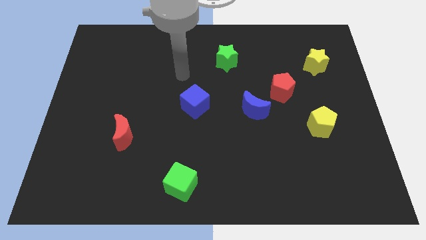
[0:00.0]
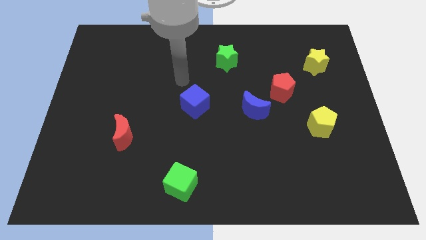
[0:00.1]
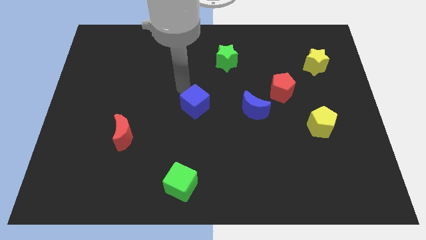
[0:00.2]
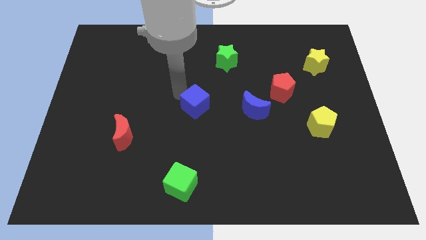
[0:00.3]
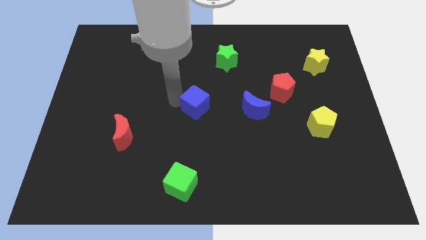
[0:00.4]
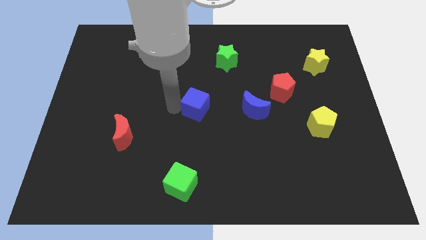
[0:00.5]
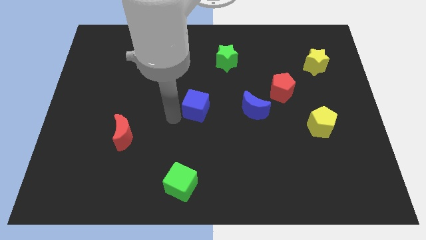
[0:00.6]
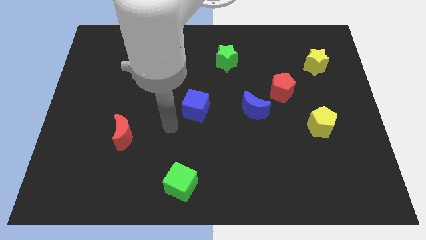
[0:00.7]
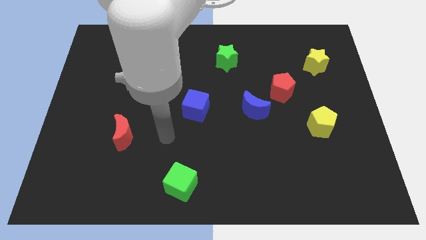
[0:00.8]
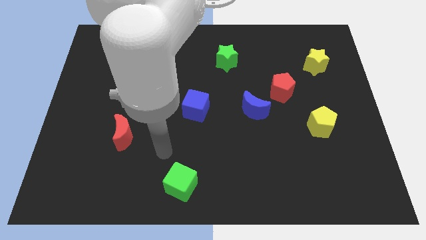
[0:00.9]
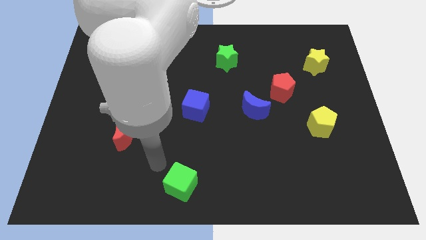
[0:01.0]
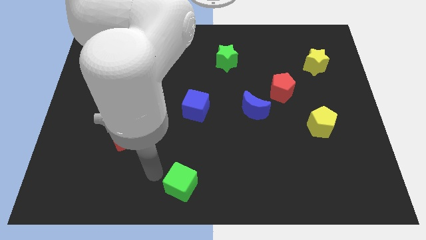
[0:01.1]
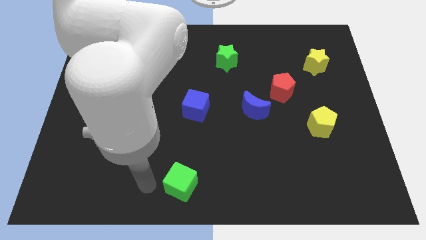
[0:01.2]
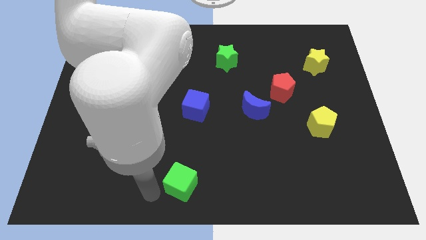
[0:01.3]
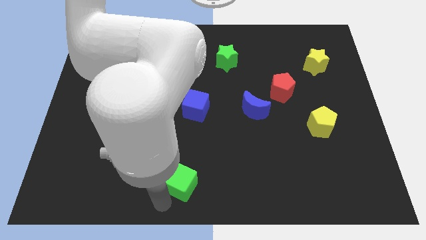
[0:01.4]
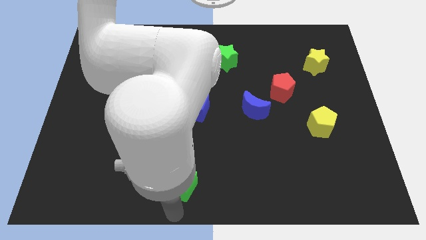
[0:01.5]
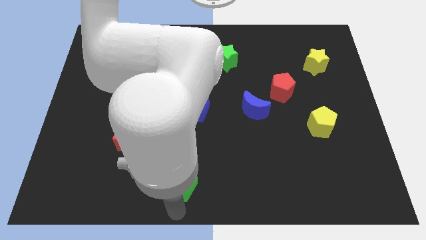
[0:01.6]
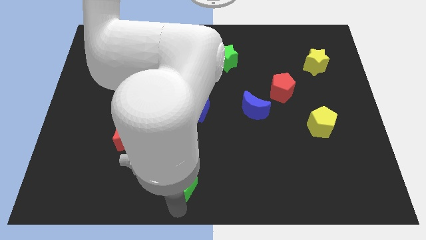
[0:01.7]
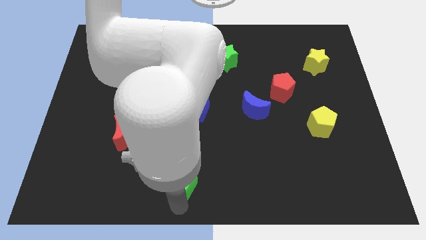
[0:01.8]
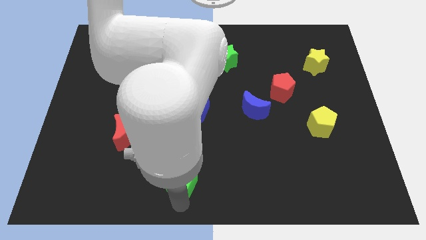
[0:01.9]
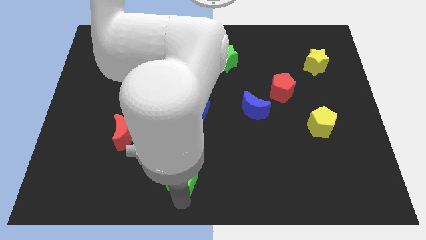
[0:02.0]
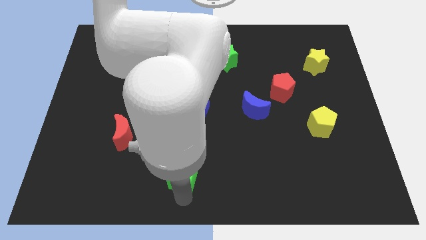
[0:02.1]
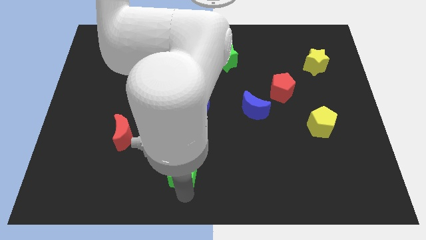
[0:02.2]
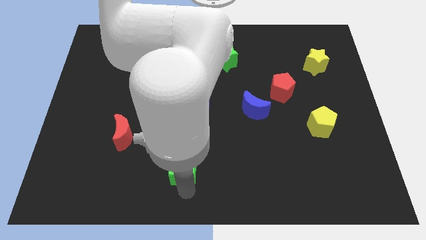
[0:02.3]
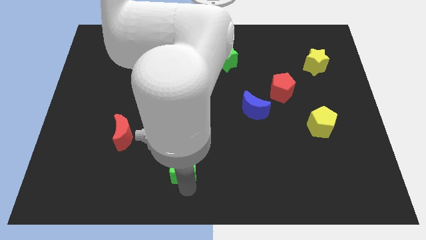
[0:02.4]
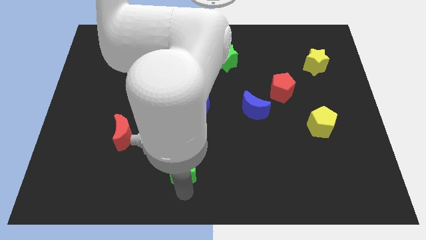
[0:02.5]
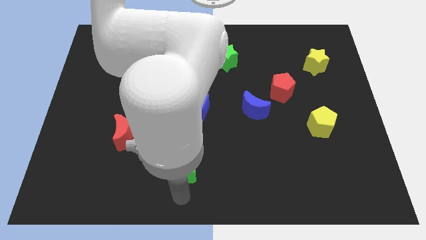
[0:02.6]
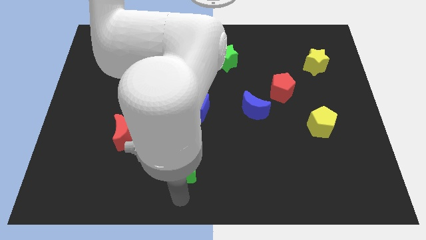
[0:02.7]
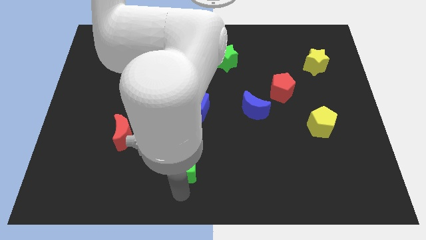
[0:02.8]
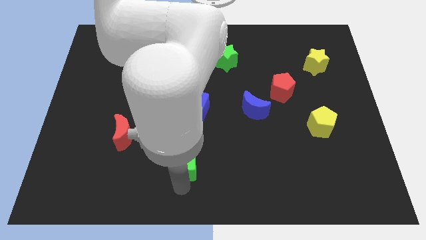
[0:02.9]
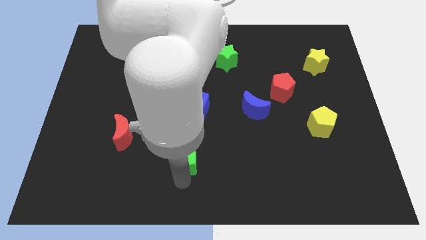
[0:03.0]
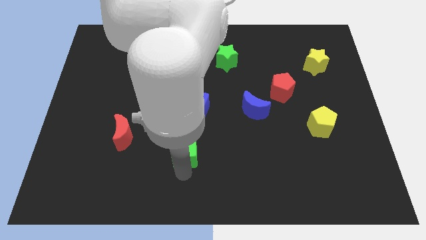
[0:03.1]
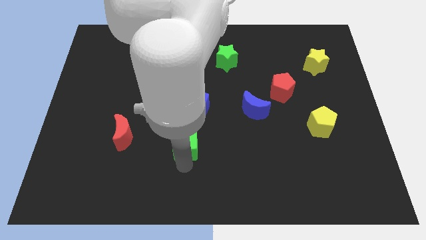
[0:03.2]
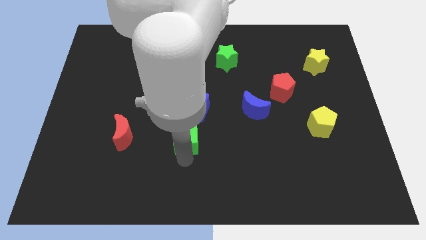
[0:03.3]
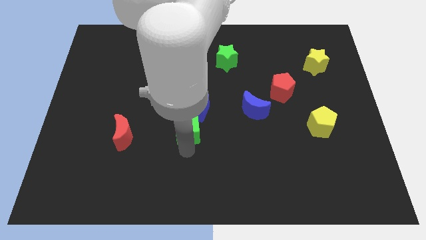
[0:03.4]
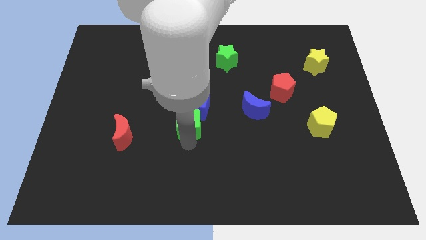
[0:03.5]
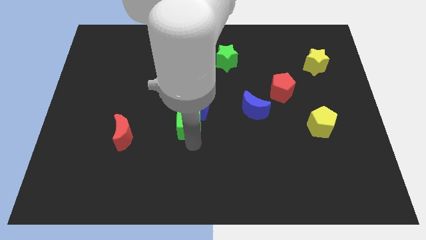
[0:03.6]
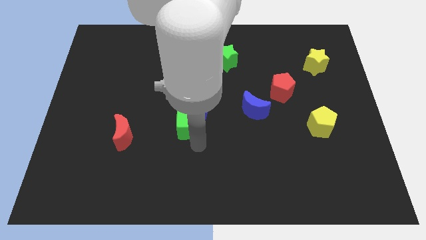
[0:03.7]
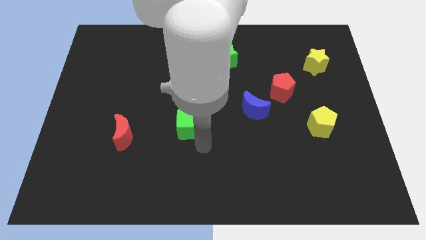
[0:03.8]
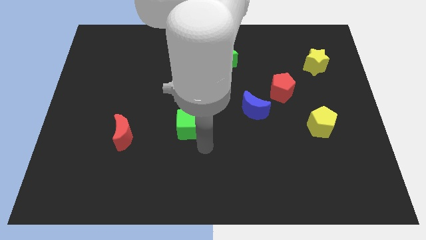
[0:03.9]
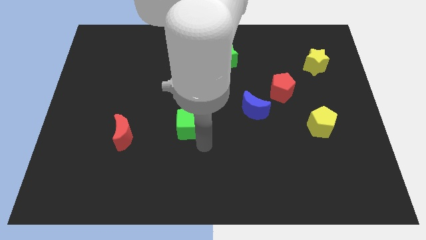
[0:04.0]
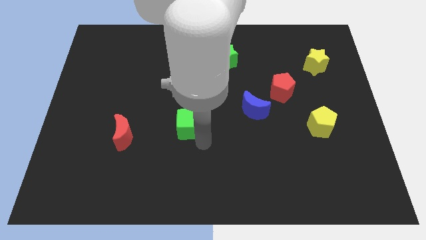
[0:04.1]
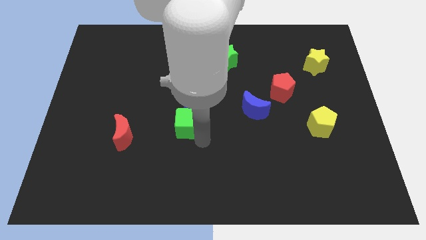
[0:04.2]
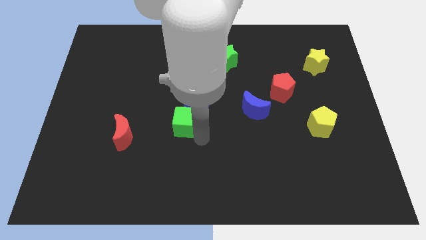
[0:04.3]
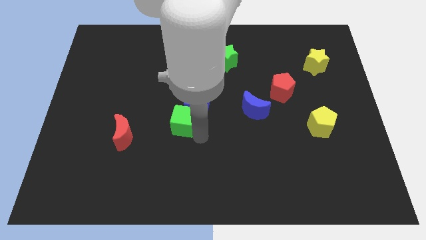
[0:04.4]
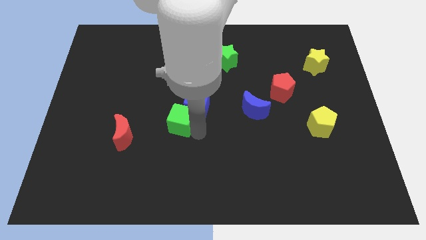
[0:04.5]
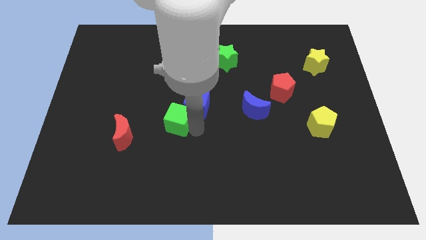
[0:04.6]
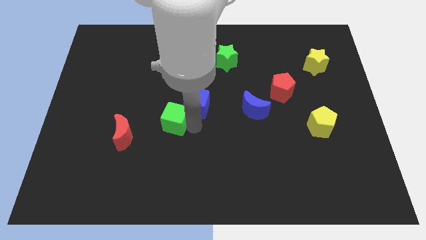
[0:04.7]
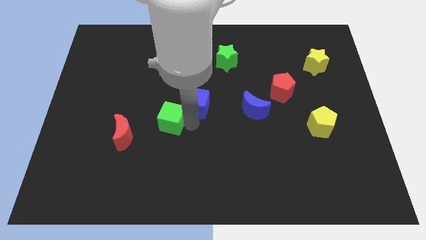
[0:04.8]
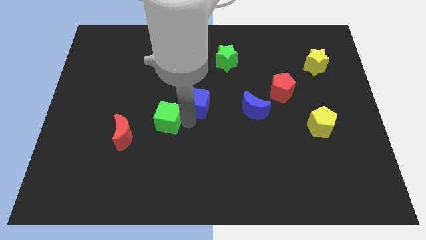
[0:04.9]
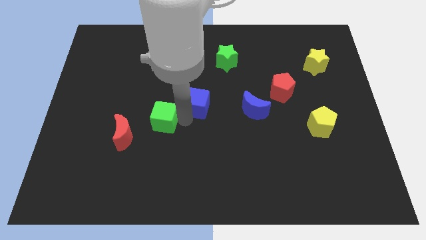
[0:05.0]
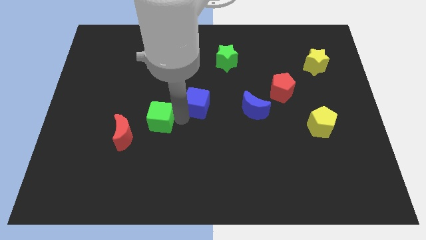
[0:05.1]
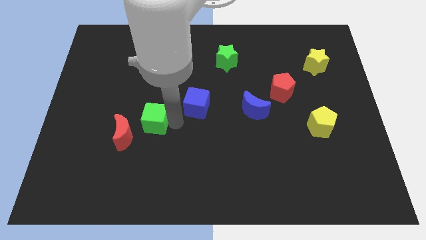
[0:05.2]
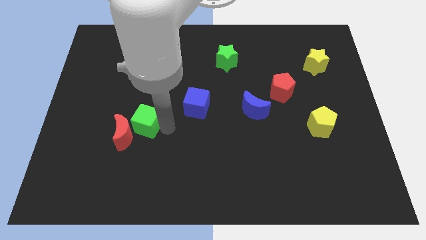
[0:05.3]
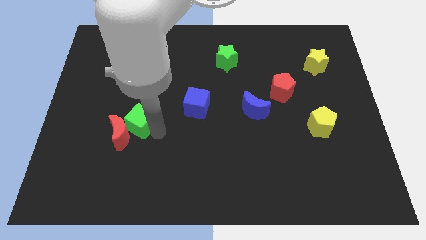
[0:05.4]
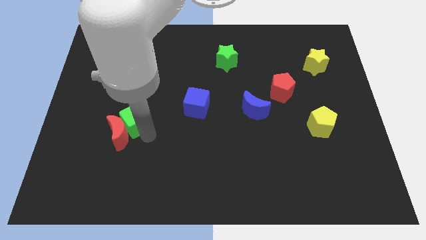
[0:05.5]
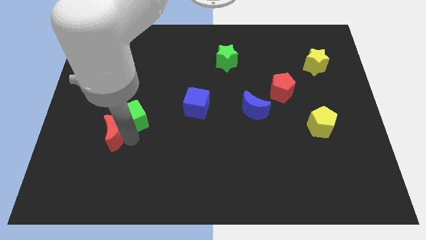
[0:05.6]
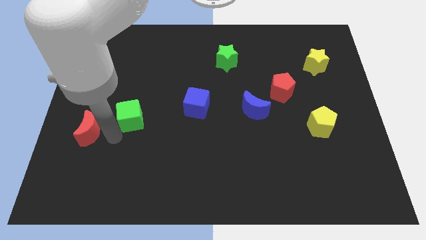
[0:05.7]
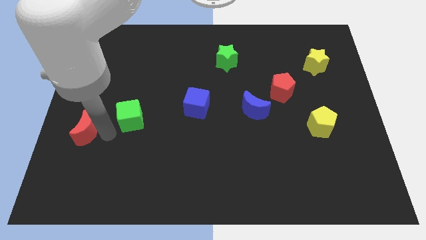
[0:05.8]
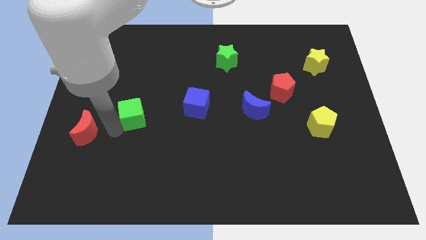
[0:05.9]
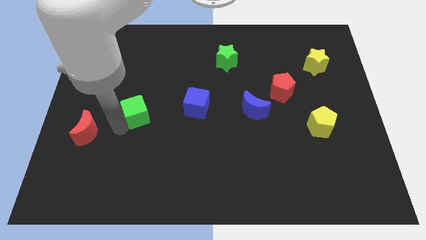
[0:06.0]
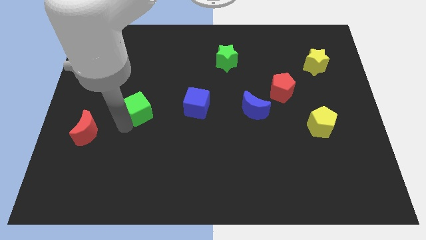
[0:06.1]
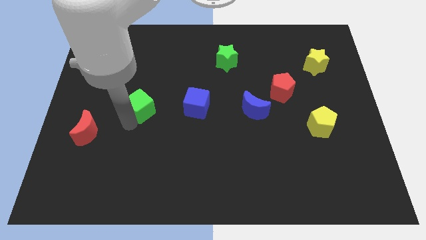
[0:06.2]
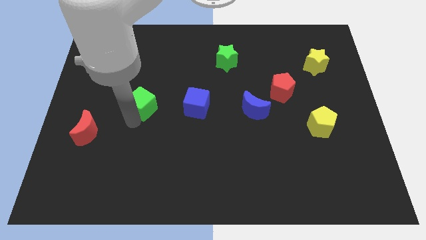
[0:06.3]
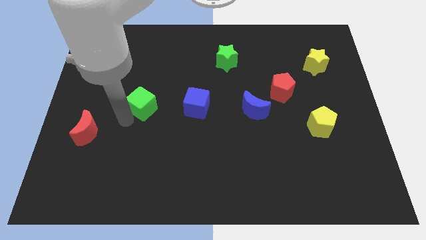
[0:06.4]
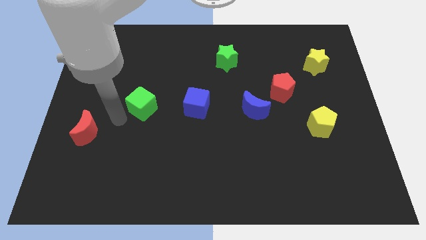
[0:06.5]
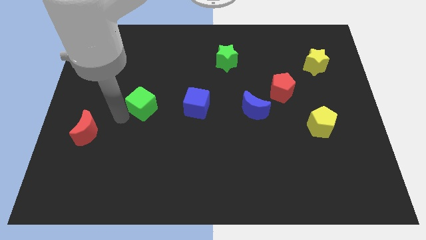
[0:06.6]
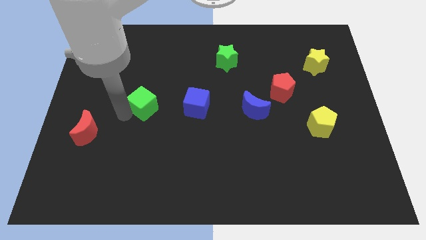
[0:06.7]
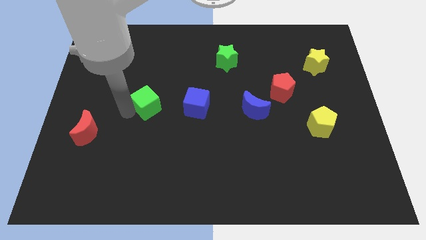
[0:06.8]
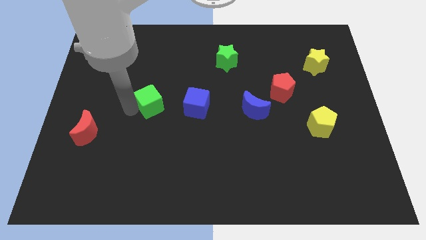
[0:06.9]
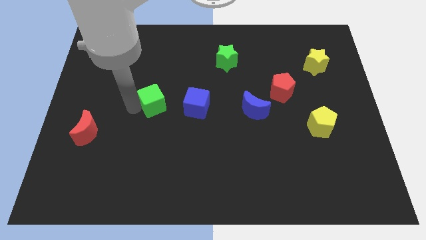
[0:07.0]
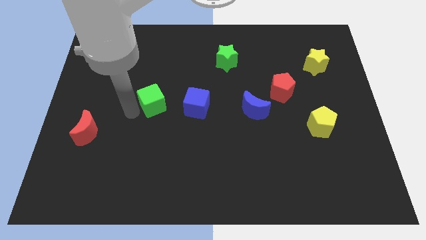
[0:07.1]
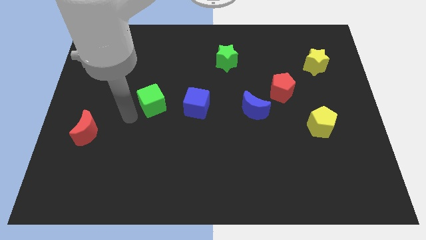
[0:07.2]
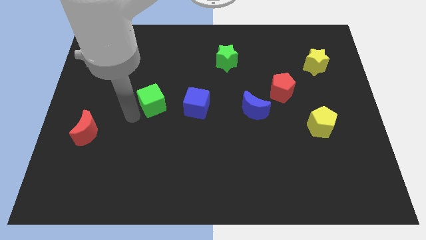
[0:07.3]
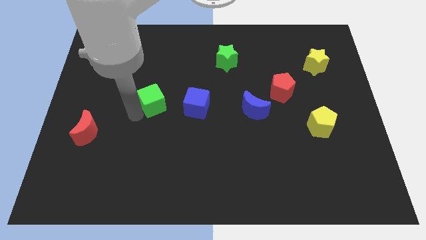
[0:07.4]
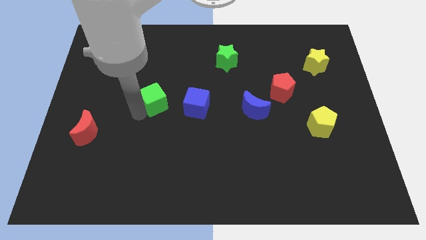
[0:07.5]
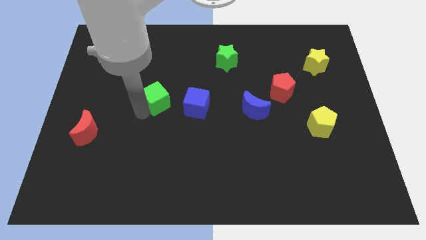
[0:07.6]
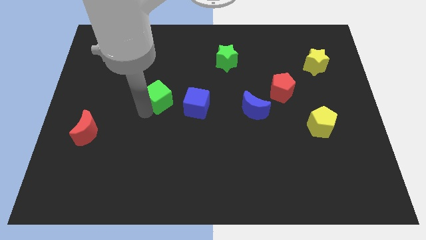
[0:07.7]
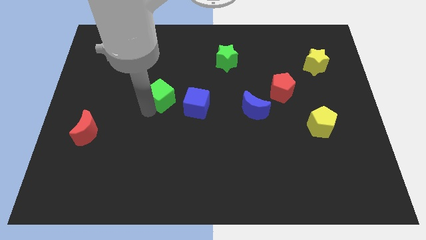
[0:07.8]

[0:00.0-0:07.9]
put the green cube to the top left of the blue cube

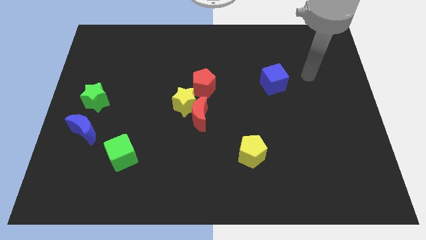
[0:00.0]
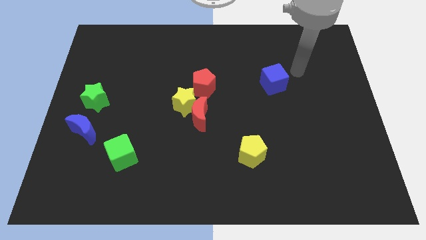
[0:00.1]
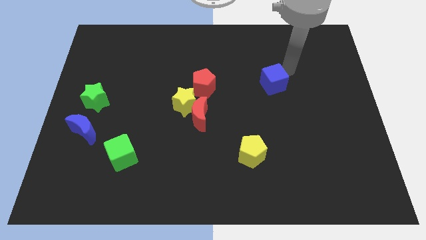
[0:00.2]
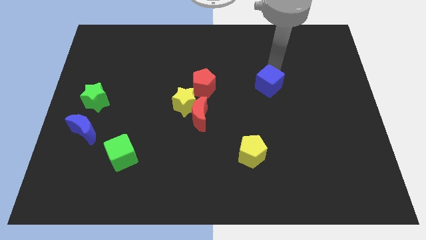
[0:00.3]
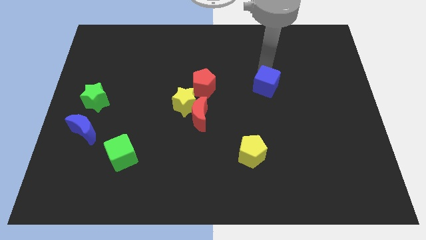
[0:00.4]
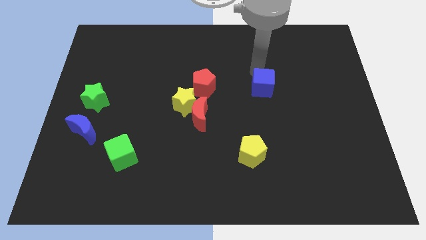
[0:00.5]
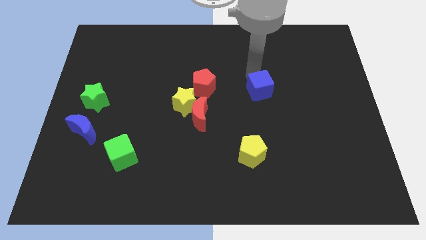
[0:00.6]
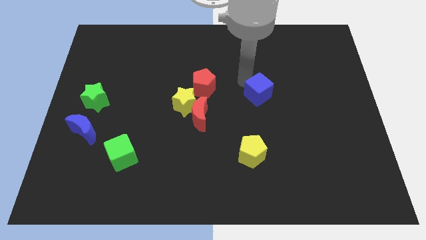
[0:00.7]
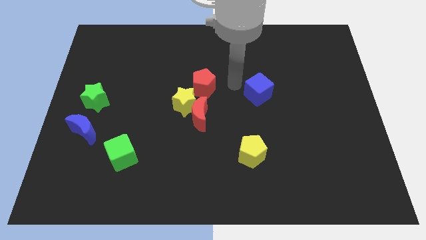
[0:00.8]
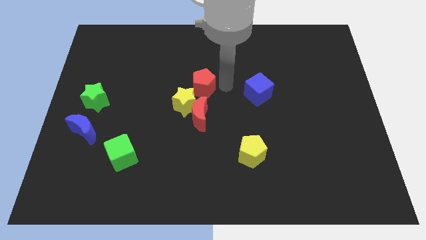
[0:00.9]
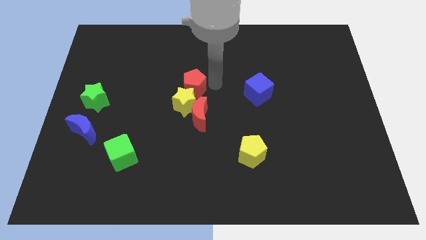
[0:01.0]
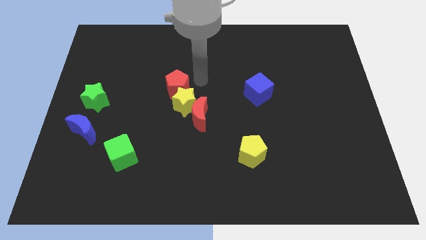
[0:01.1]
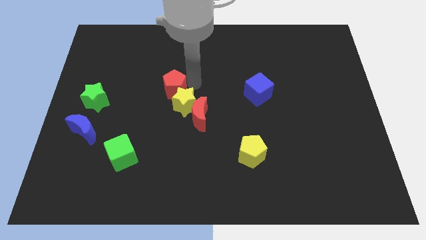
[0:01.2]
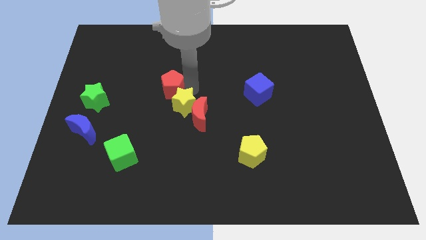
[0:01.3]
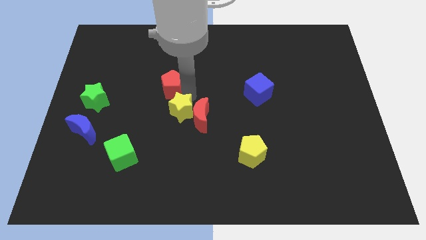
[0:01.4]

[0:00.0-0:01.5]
push the yellow star to the bottom left side of the red moon
